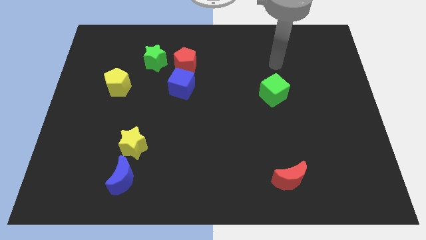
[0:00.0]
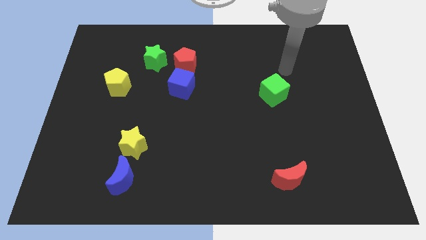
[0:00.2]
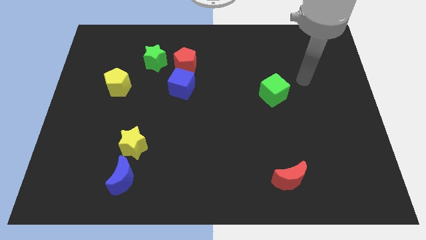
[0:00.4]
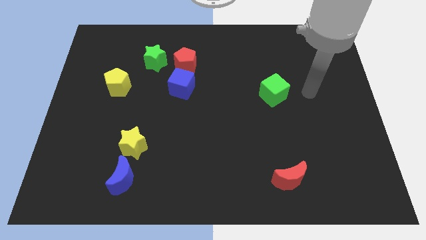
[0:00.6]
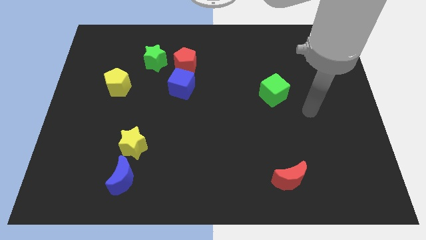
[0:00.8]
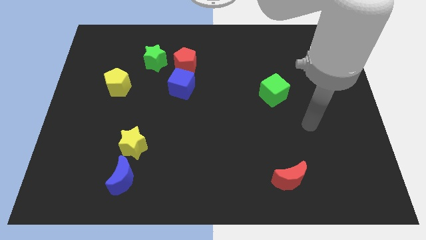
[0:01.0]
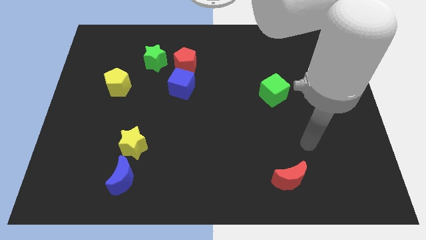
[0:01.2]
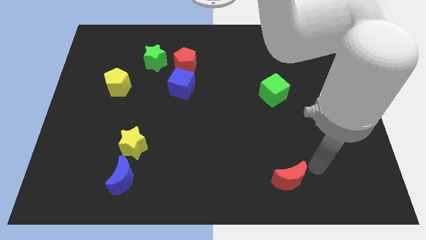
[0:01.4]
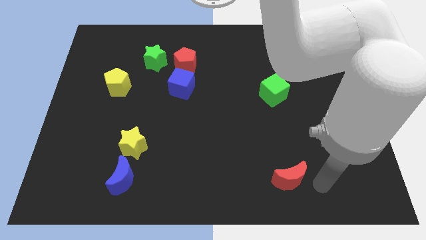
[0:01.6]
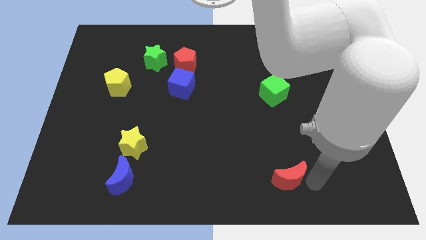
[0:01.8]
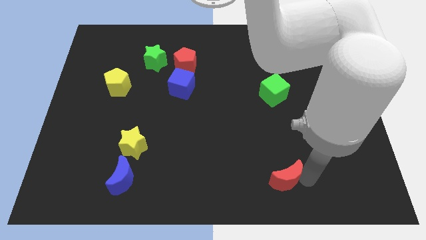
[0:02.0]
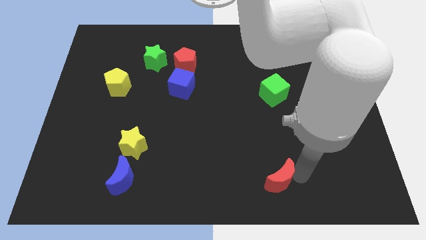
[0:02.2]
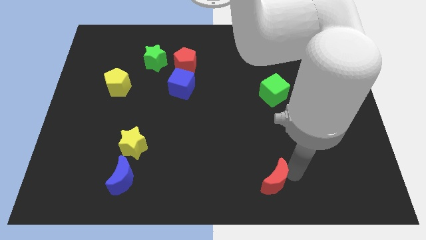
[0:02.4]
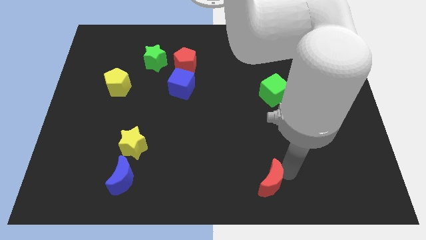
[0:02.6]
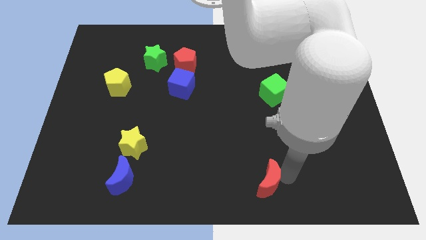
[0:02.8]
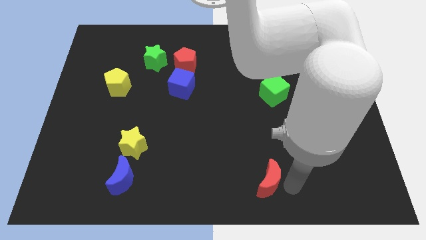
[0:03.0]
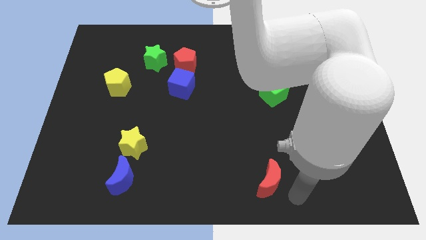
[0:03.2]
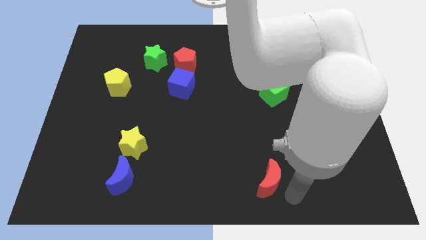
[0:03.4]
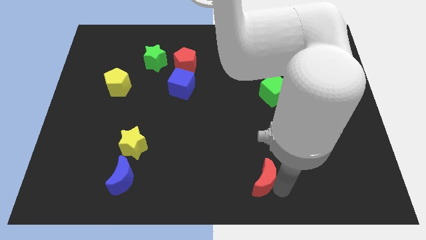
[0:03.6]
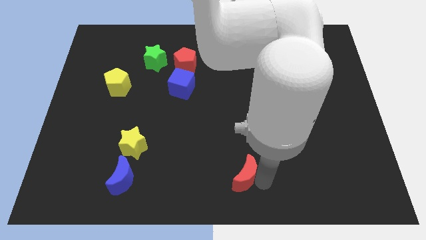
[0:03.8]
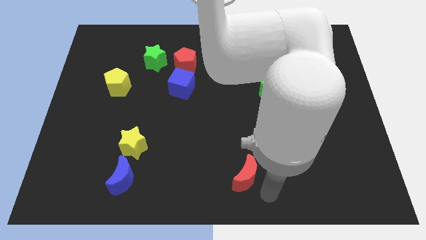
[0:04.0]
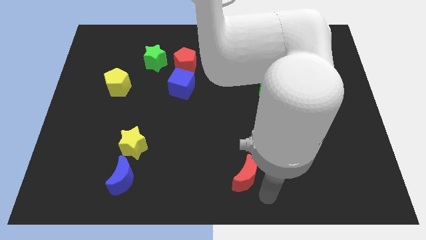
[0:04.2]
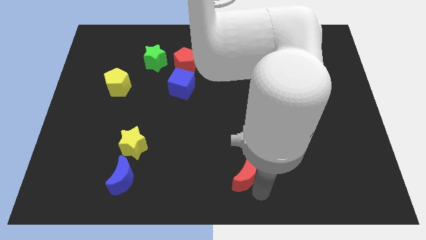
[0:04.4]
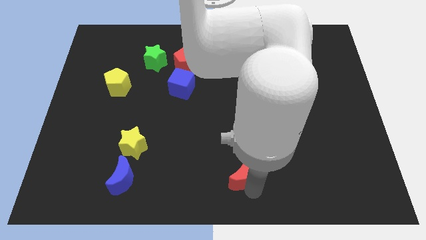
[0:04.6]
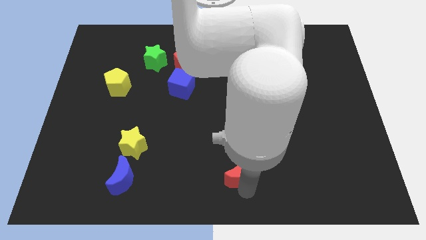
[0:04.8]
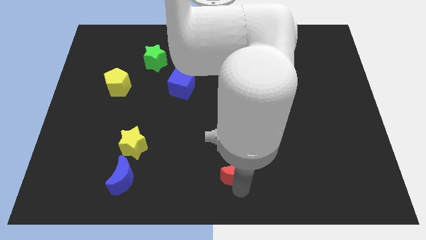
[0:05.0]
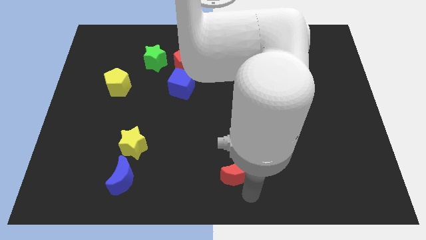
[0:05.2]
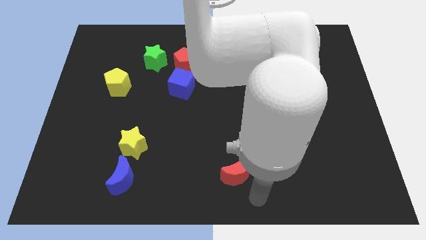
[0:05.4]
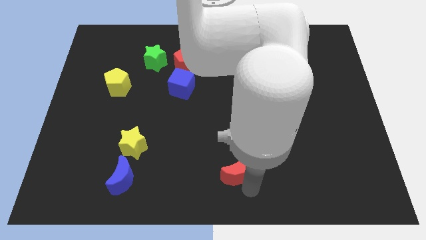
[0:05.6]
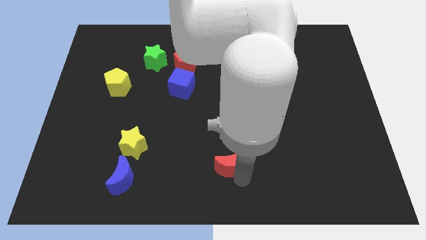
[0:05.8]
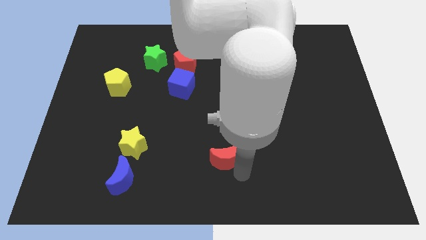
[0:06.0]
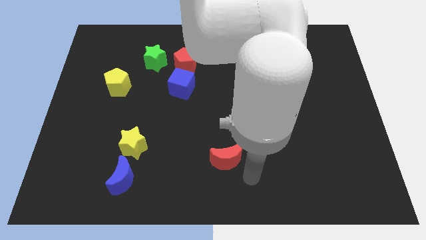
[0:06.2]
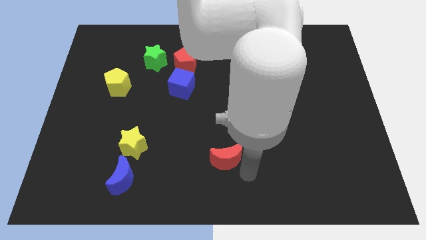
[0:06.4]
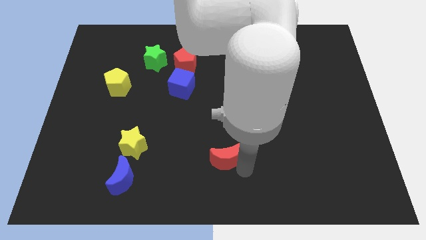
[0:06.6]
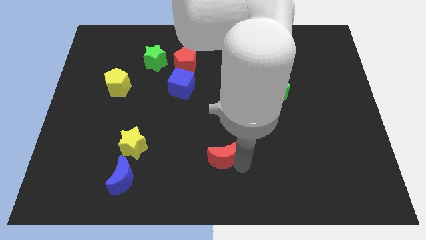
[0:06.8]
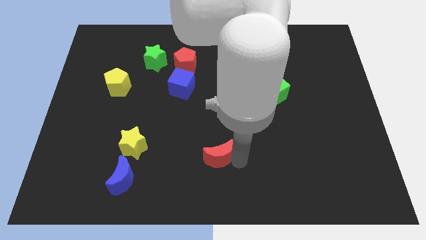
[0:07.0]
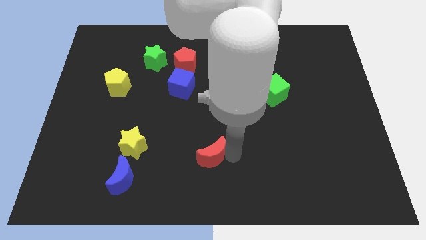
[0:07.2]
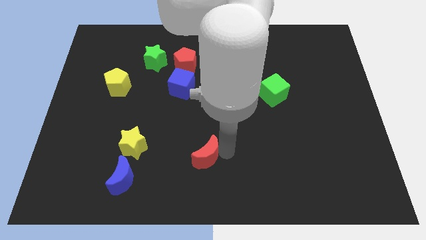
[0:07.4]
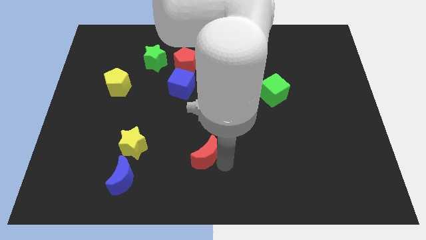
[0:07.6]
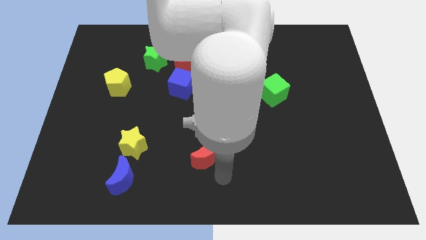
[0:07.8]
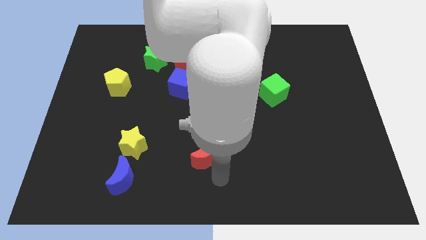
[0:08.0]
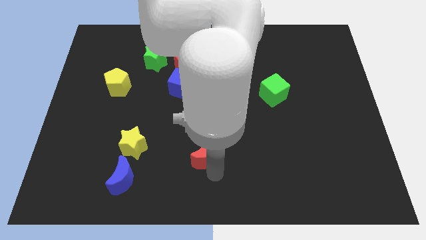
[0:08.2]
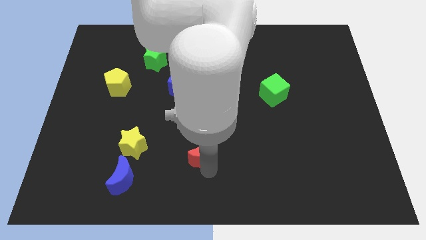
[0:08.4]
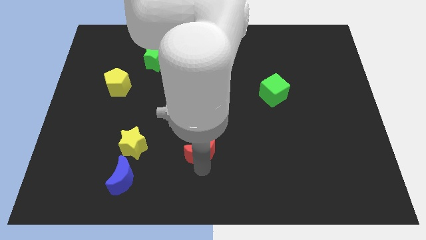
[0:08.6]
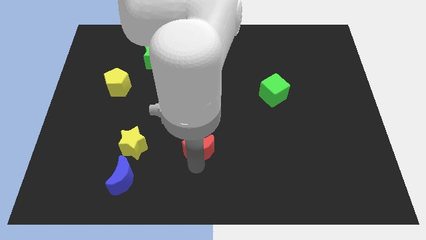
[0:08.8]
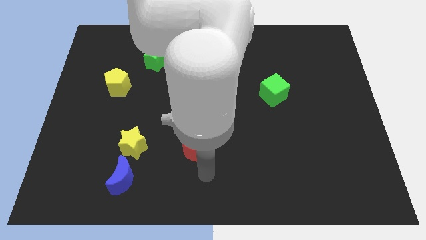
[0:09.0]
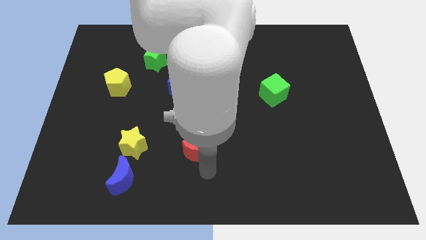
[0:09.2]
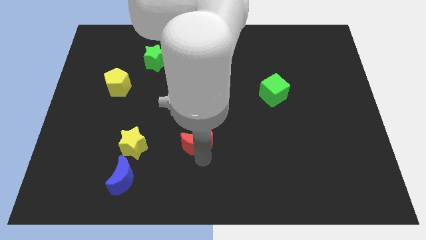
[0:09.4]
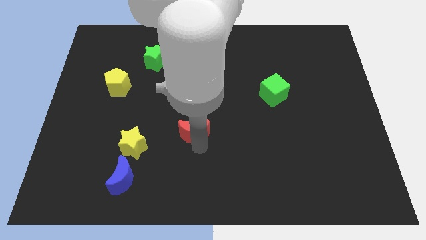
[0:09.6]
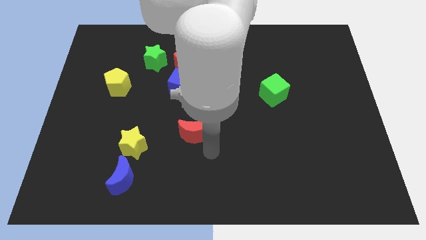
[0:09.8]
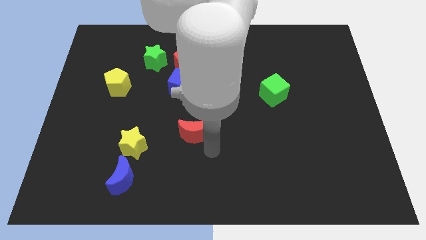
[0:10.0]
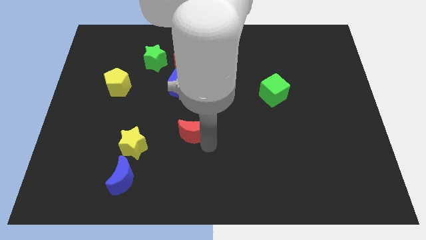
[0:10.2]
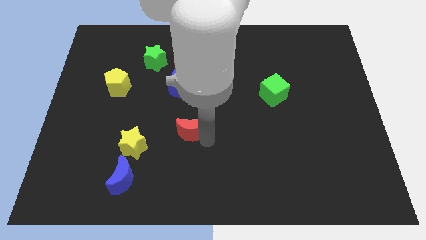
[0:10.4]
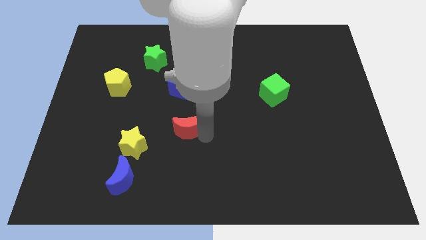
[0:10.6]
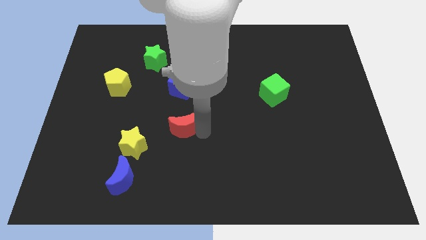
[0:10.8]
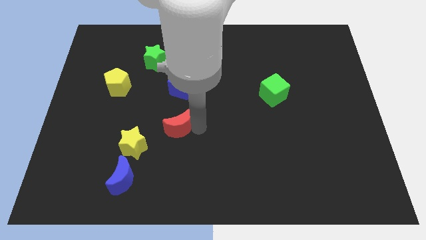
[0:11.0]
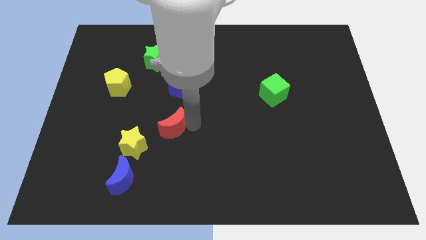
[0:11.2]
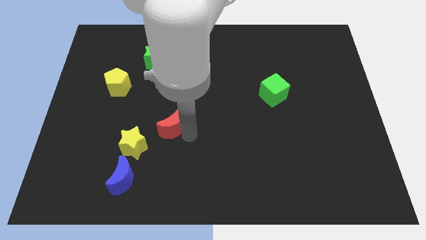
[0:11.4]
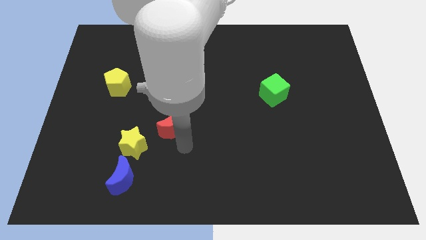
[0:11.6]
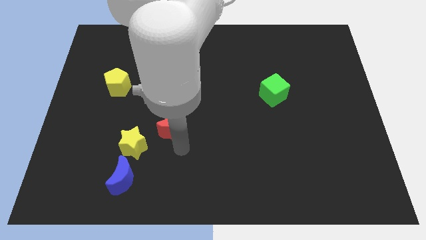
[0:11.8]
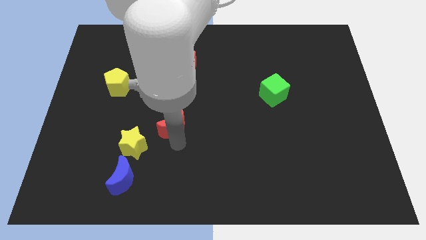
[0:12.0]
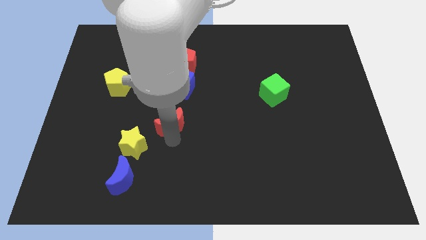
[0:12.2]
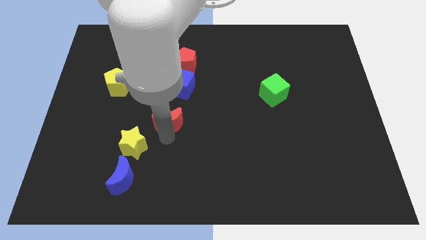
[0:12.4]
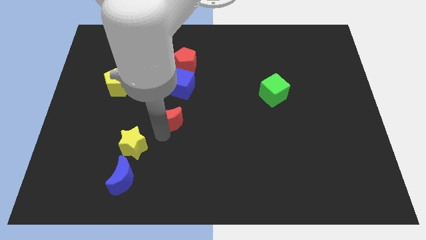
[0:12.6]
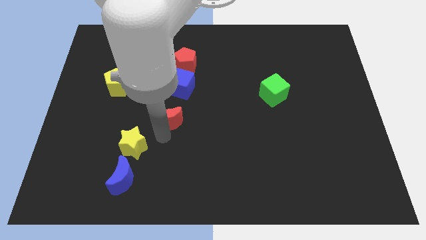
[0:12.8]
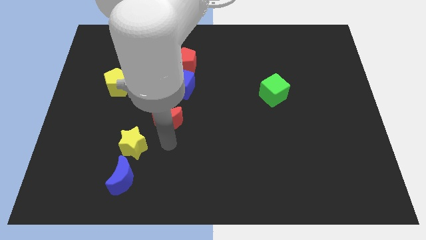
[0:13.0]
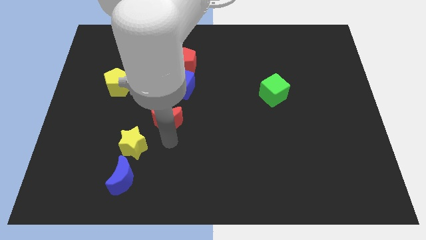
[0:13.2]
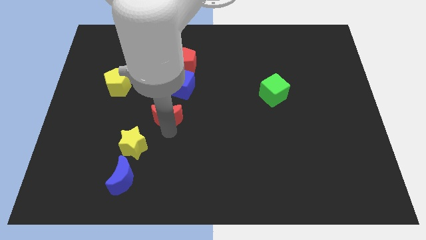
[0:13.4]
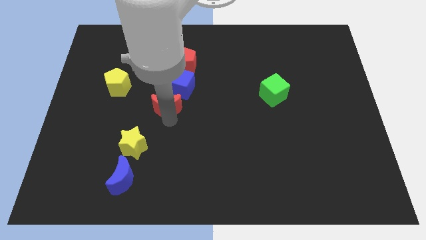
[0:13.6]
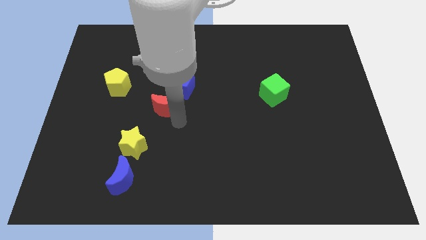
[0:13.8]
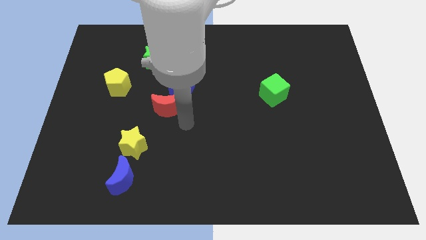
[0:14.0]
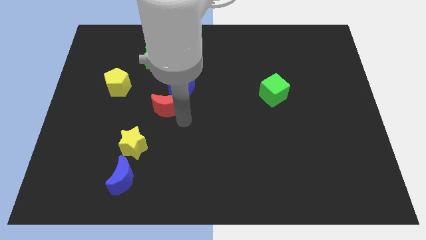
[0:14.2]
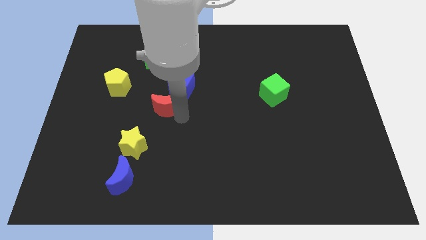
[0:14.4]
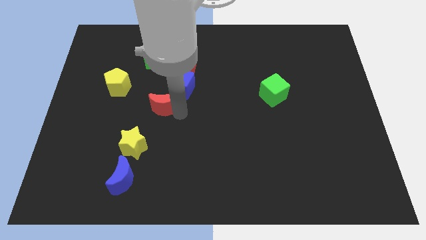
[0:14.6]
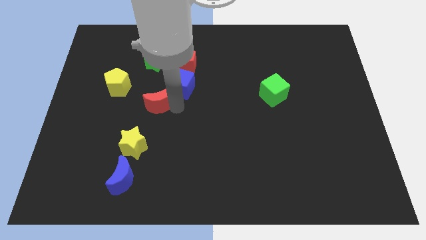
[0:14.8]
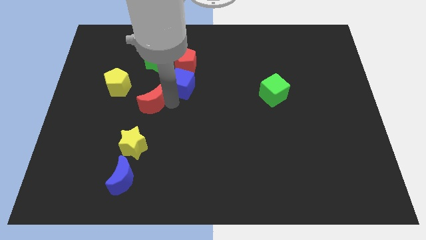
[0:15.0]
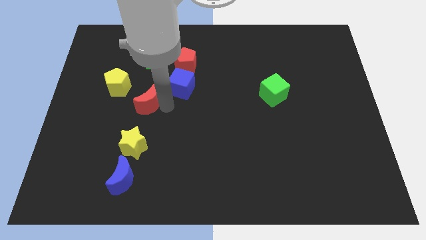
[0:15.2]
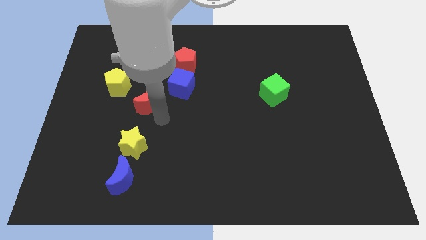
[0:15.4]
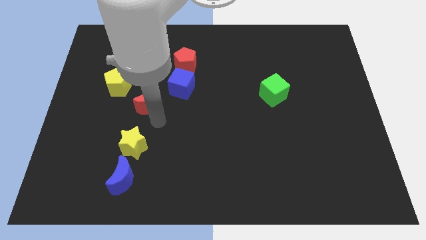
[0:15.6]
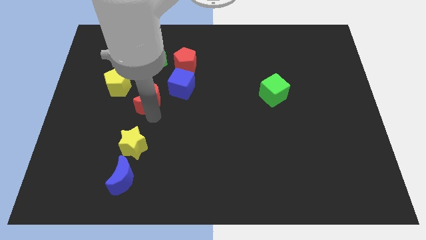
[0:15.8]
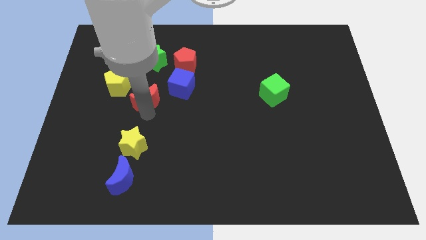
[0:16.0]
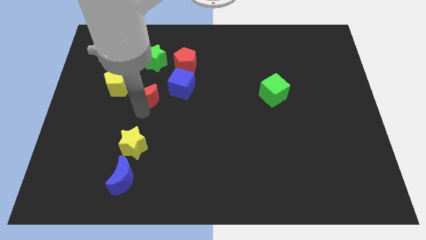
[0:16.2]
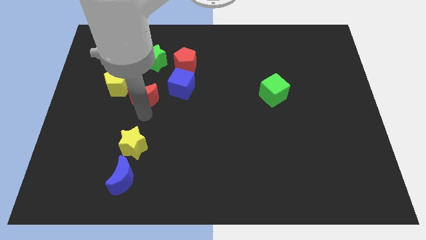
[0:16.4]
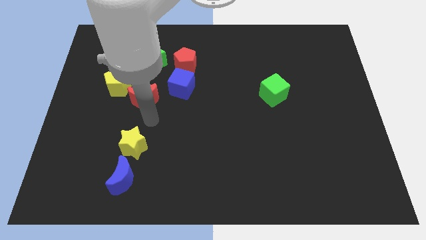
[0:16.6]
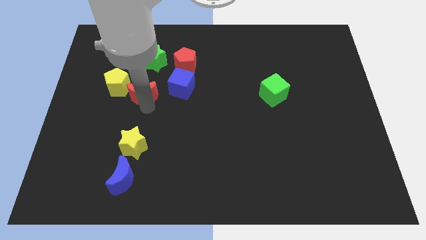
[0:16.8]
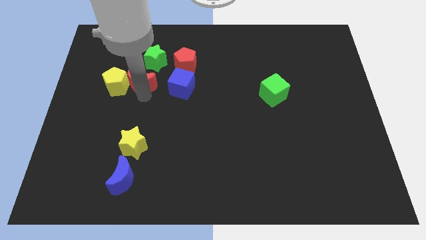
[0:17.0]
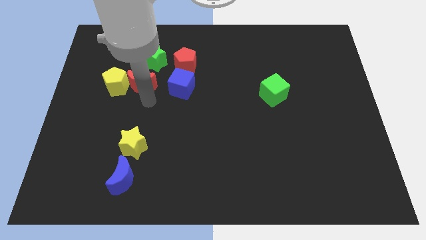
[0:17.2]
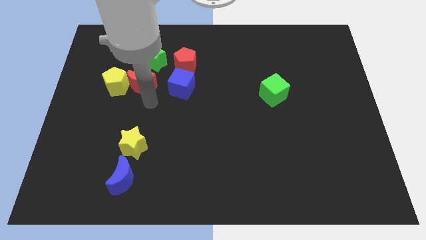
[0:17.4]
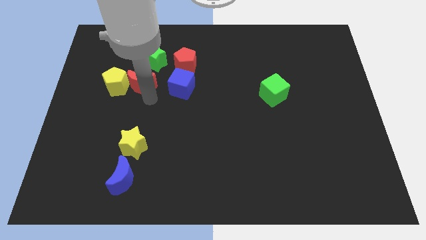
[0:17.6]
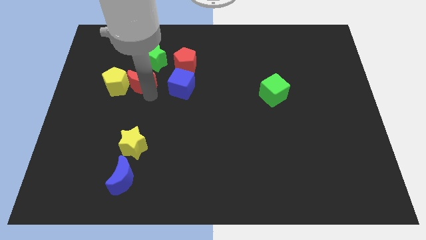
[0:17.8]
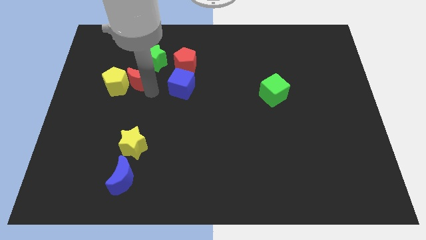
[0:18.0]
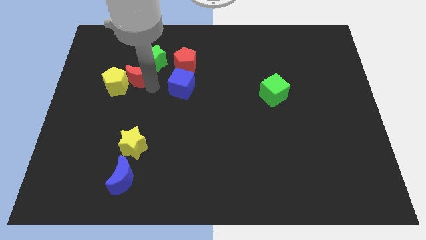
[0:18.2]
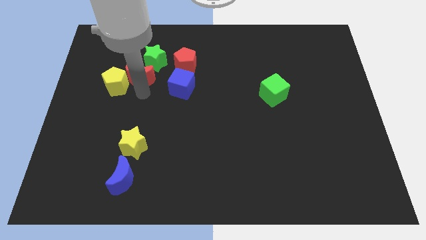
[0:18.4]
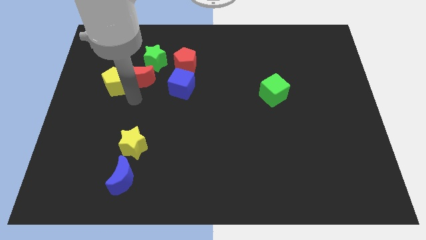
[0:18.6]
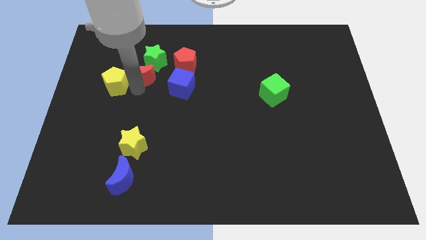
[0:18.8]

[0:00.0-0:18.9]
put the red moon just left of the red pentagon
